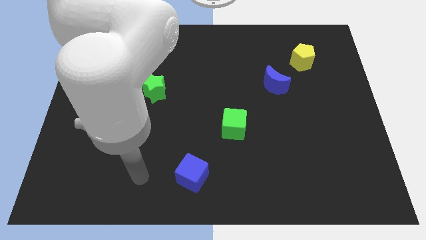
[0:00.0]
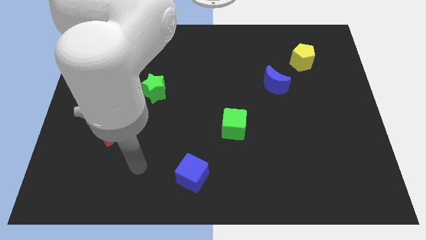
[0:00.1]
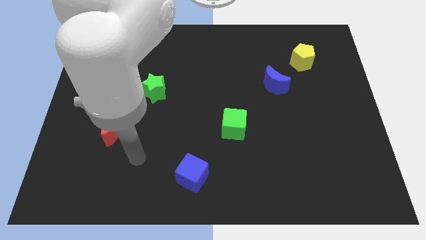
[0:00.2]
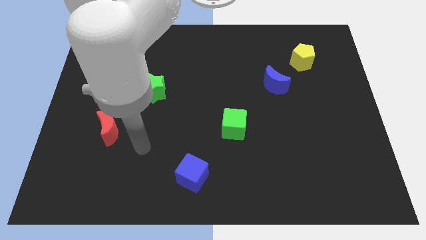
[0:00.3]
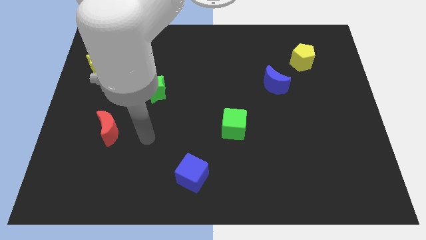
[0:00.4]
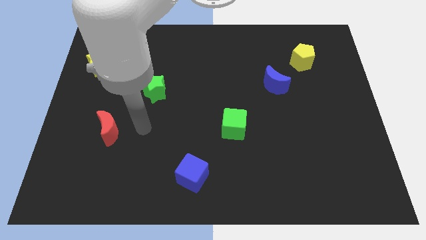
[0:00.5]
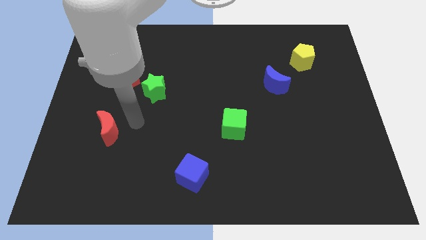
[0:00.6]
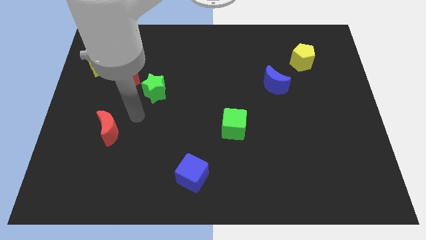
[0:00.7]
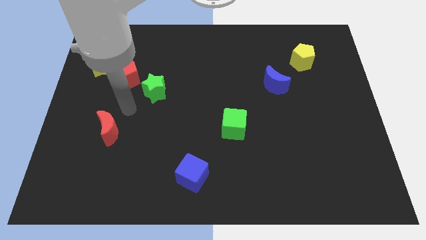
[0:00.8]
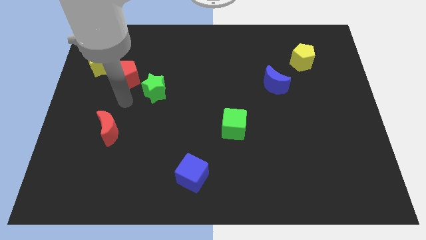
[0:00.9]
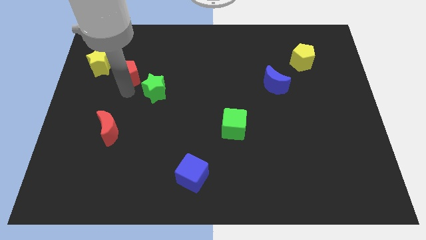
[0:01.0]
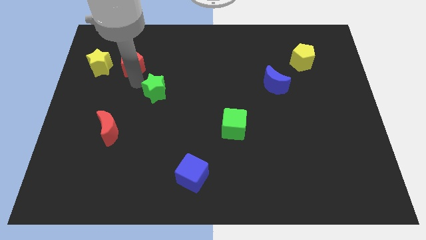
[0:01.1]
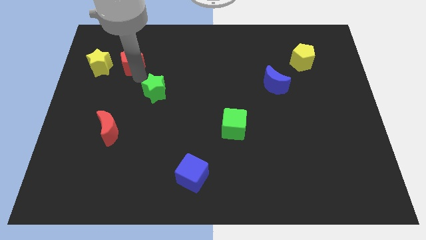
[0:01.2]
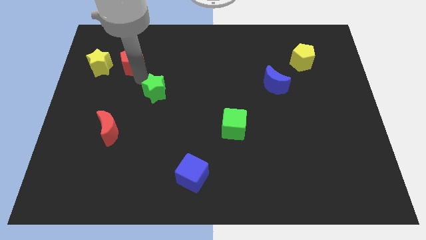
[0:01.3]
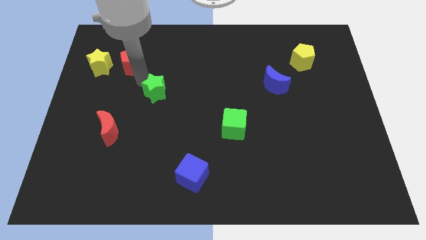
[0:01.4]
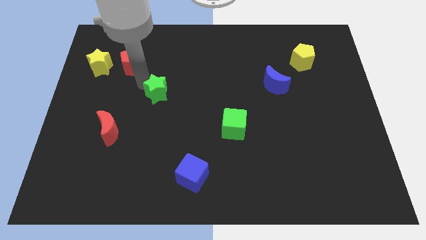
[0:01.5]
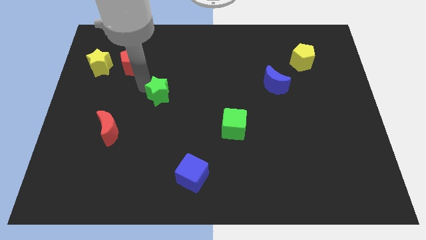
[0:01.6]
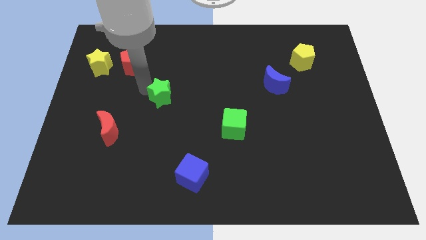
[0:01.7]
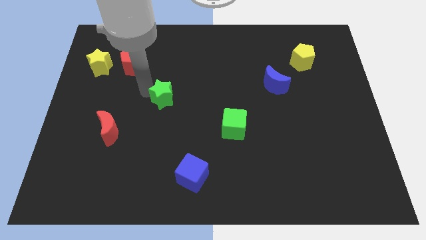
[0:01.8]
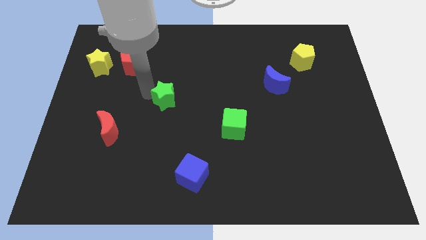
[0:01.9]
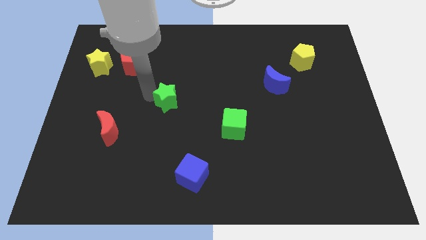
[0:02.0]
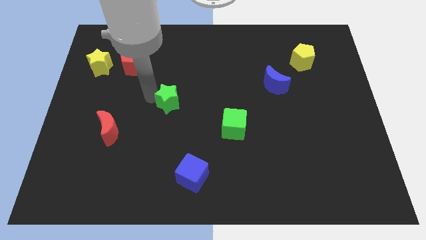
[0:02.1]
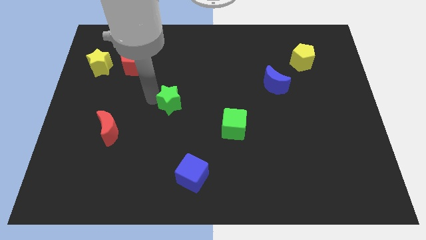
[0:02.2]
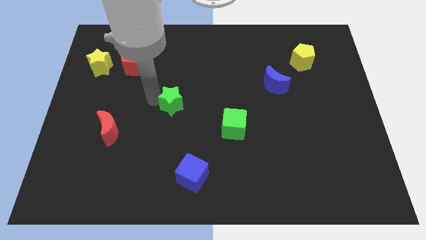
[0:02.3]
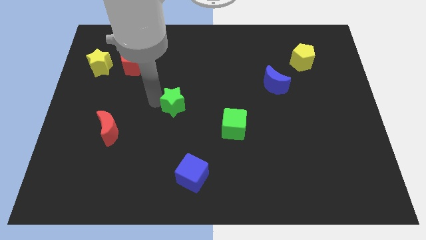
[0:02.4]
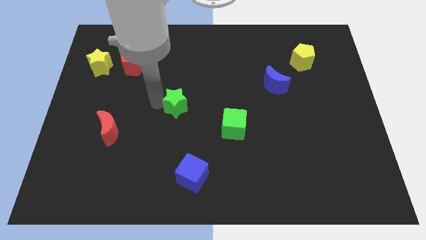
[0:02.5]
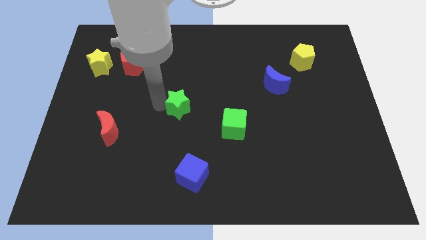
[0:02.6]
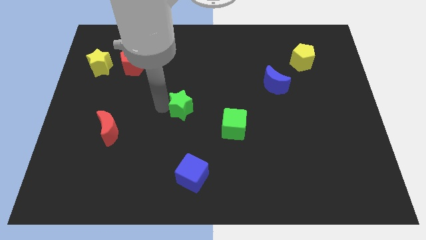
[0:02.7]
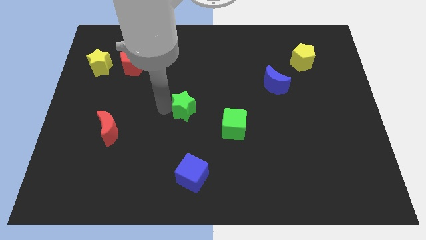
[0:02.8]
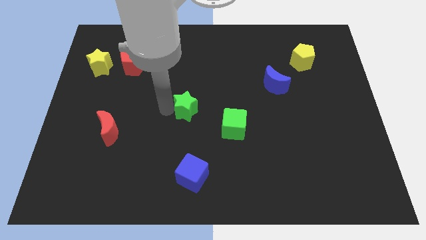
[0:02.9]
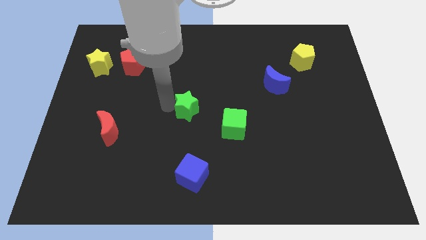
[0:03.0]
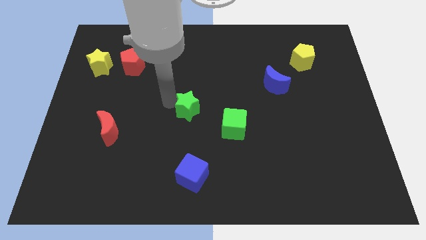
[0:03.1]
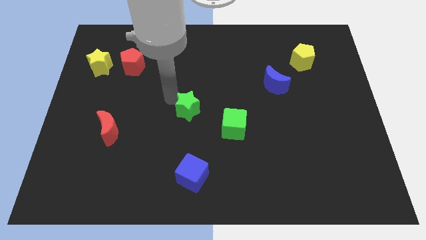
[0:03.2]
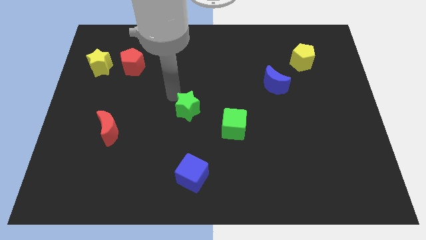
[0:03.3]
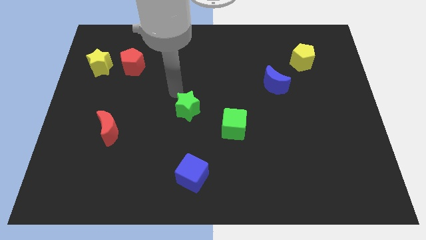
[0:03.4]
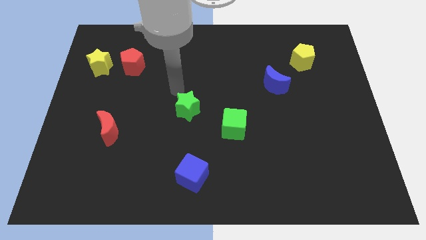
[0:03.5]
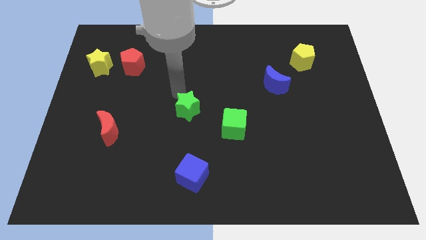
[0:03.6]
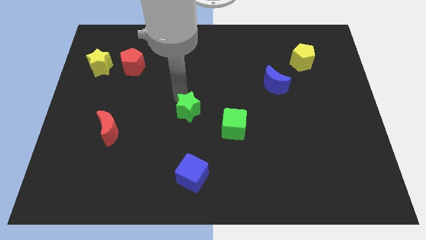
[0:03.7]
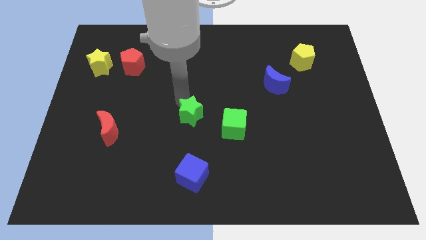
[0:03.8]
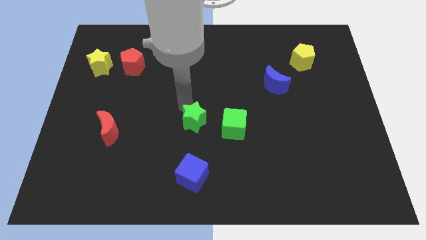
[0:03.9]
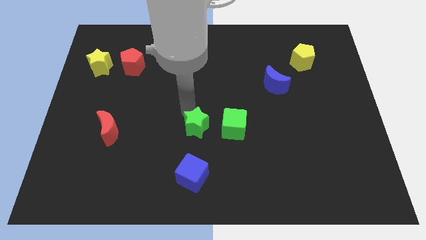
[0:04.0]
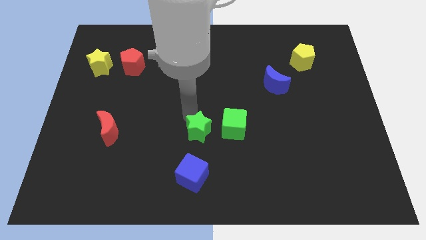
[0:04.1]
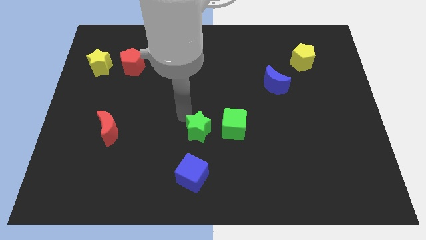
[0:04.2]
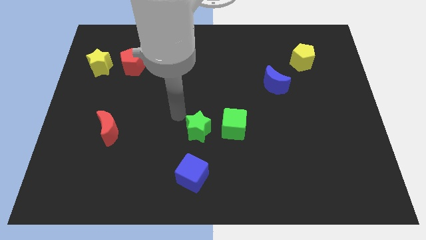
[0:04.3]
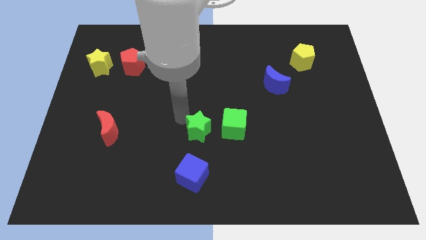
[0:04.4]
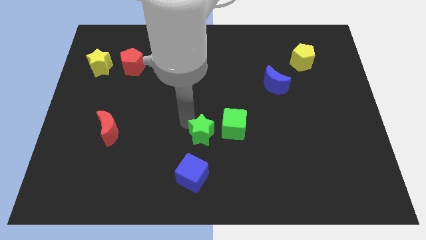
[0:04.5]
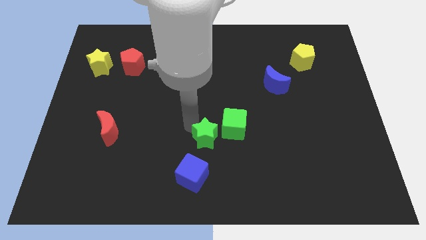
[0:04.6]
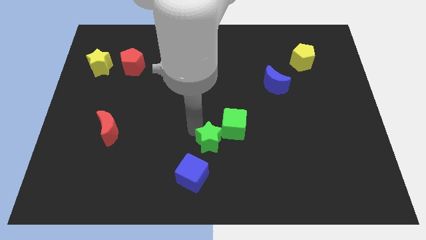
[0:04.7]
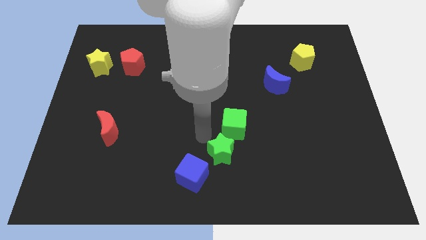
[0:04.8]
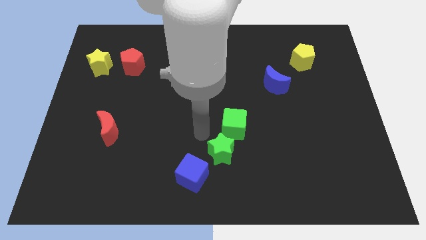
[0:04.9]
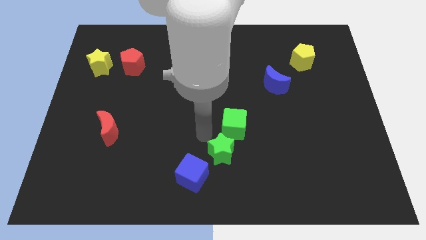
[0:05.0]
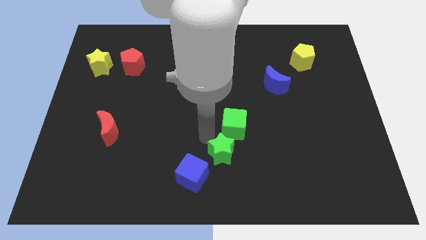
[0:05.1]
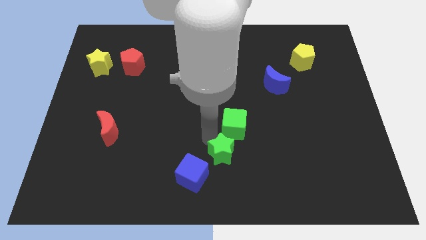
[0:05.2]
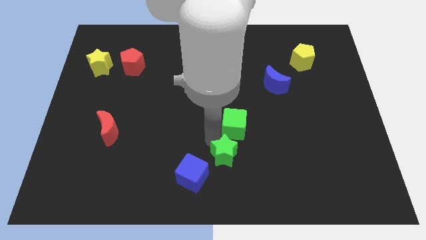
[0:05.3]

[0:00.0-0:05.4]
slide the green star to the right side of the blue cube

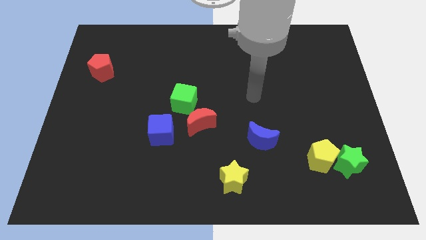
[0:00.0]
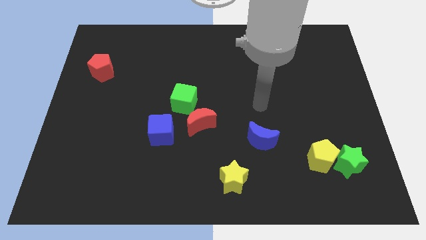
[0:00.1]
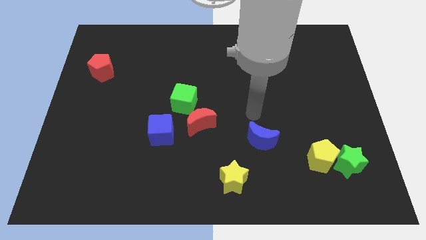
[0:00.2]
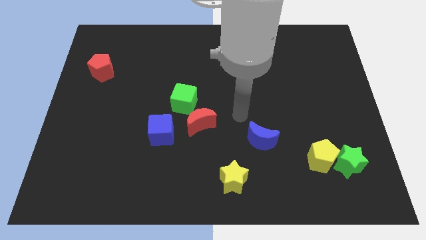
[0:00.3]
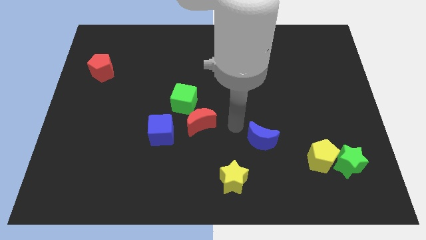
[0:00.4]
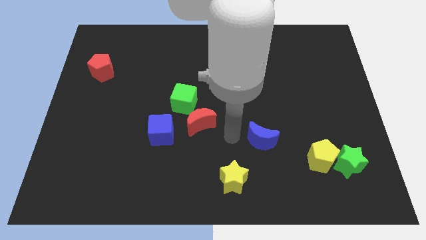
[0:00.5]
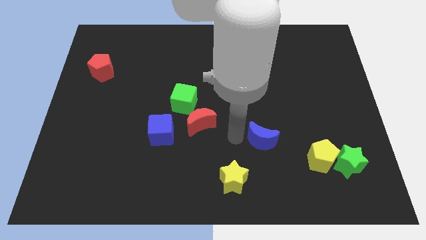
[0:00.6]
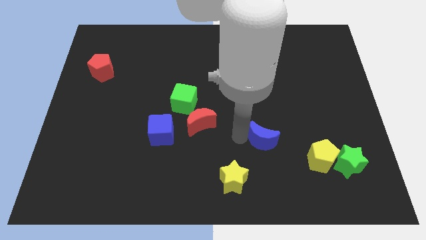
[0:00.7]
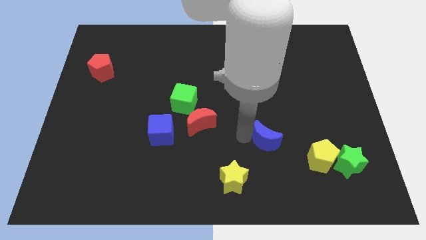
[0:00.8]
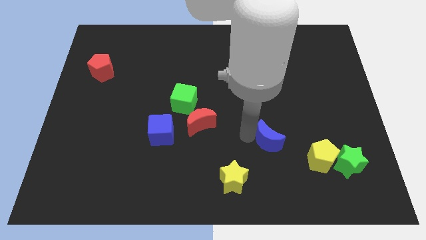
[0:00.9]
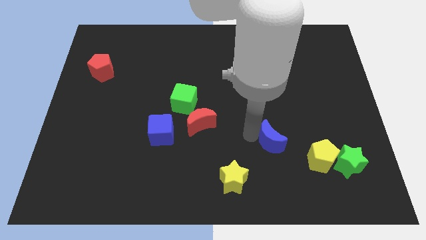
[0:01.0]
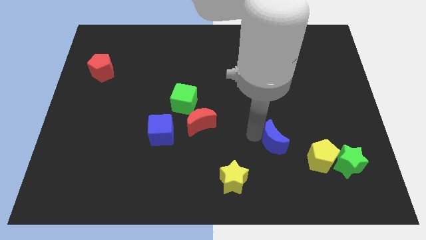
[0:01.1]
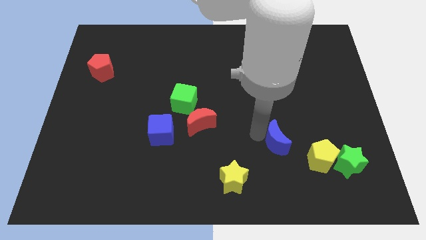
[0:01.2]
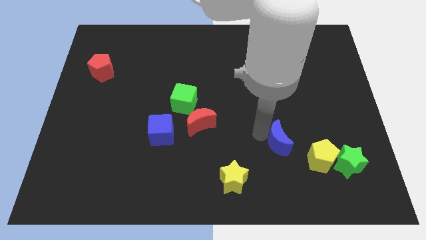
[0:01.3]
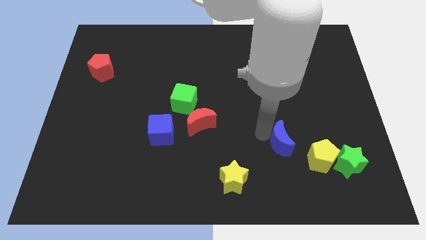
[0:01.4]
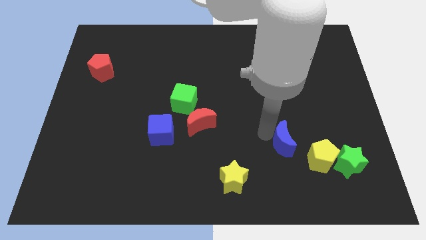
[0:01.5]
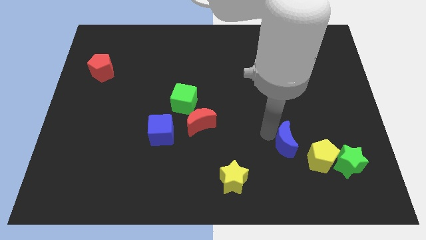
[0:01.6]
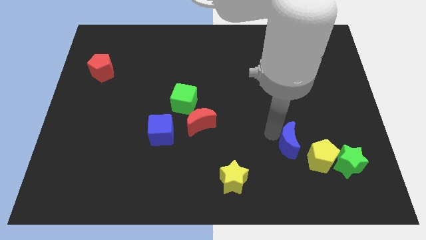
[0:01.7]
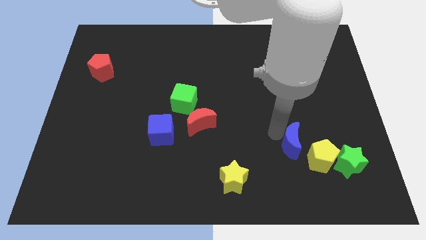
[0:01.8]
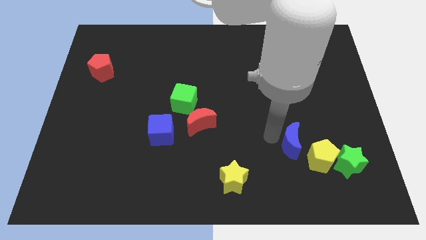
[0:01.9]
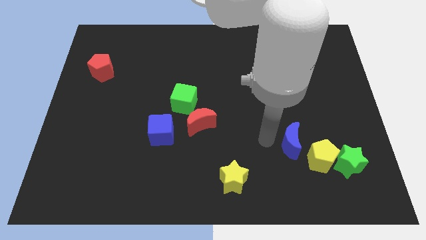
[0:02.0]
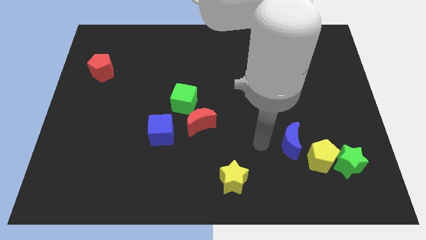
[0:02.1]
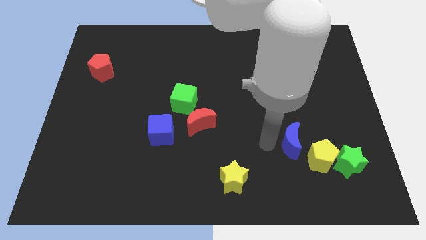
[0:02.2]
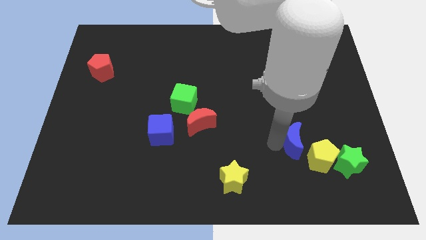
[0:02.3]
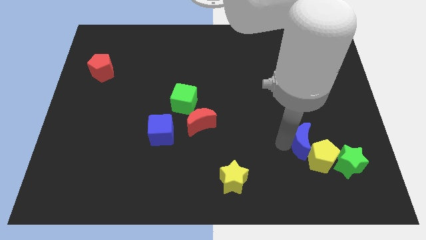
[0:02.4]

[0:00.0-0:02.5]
slide the blue moon diagonally up and to the left of the green star

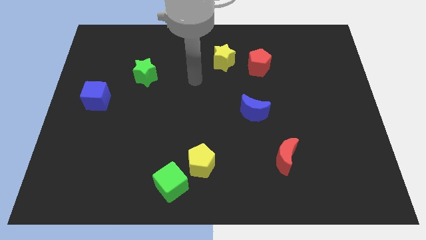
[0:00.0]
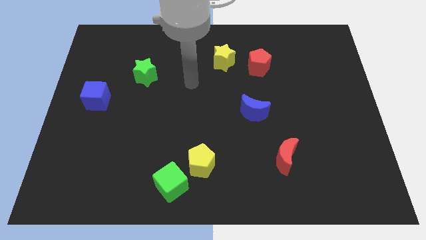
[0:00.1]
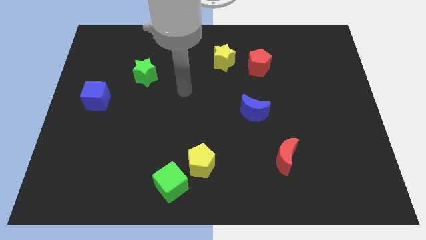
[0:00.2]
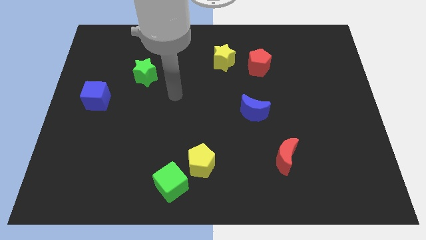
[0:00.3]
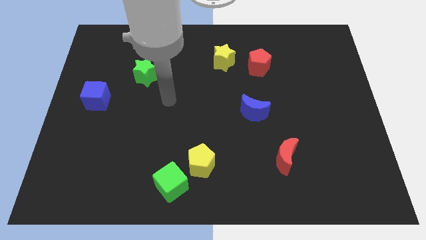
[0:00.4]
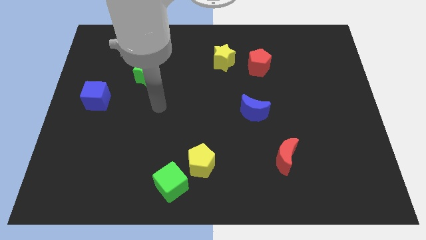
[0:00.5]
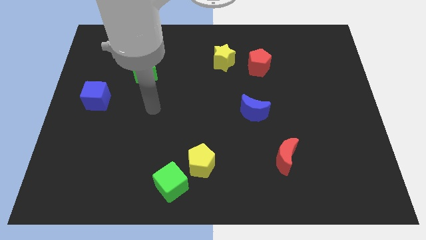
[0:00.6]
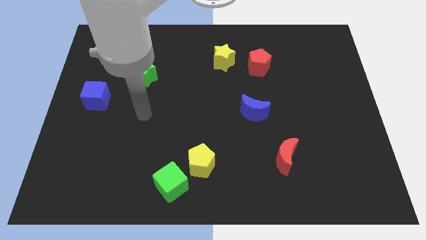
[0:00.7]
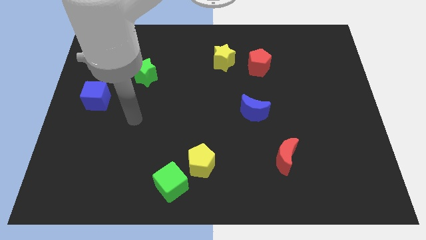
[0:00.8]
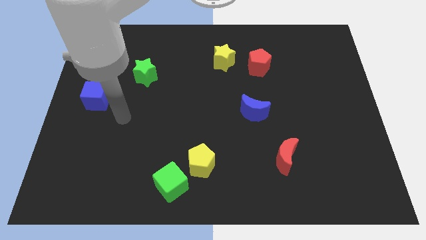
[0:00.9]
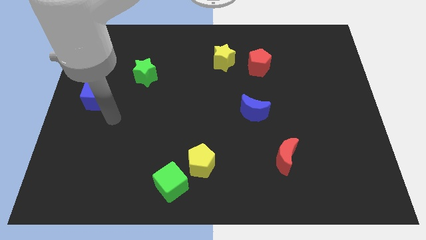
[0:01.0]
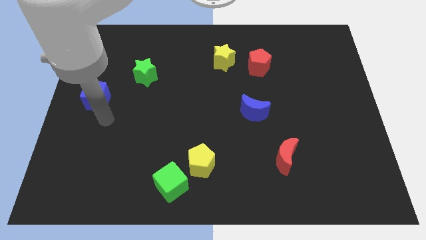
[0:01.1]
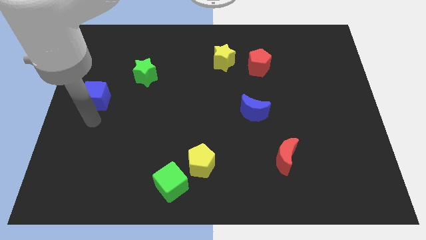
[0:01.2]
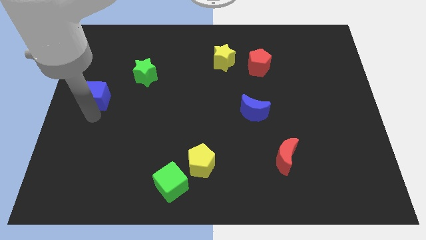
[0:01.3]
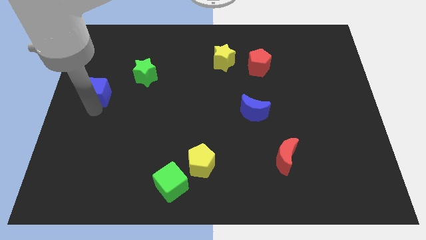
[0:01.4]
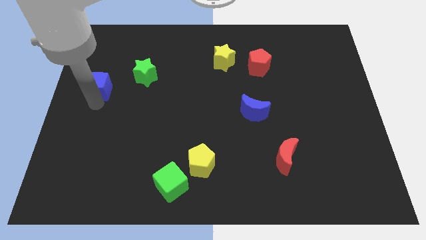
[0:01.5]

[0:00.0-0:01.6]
push the blue cube to the left of the green star
